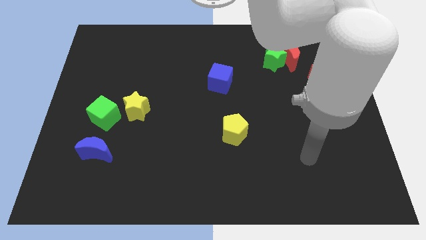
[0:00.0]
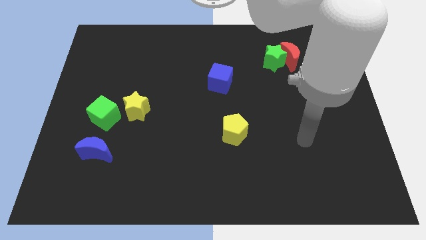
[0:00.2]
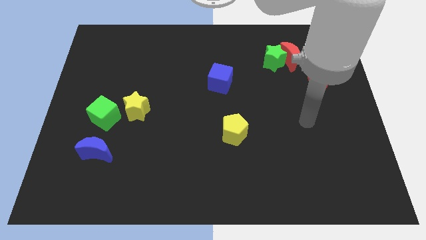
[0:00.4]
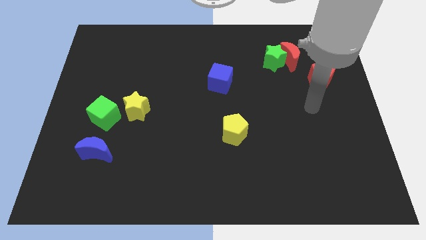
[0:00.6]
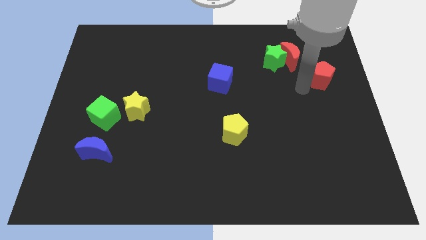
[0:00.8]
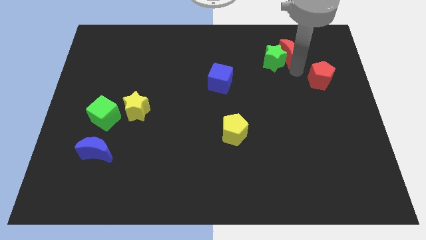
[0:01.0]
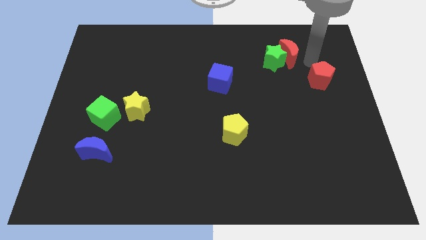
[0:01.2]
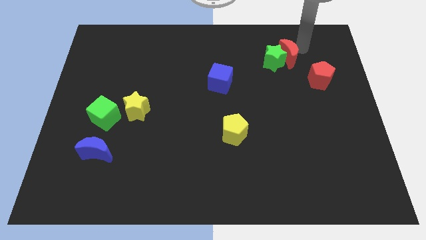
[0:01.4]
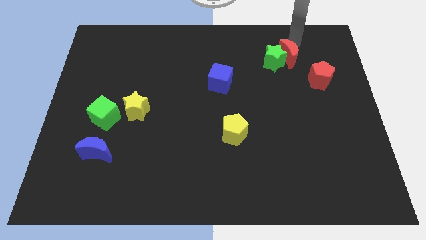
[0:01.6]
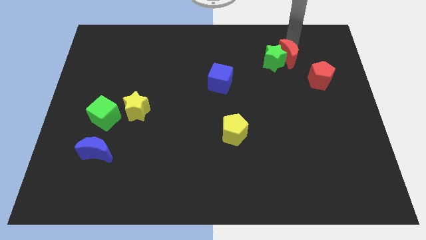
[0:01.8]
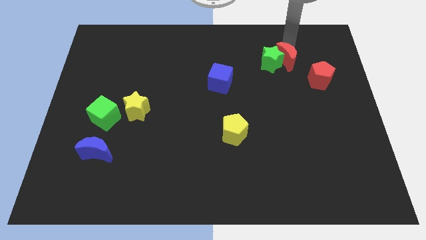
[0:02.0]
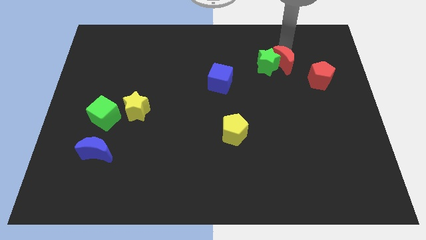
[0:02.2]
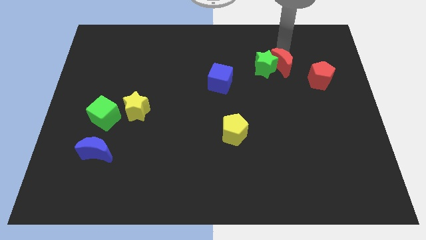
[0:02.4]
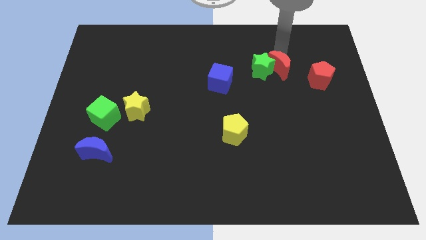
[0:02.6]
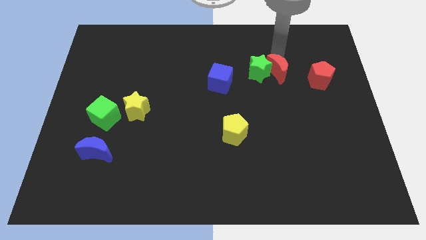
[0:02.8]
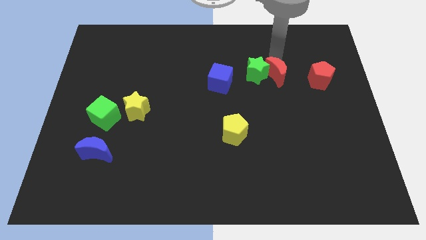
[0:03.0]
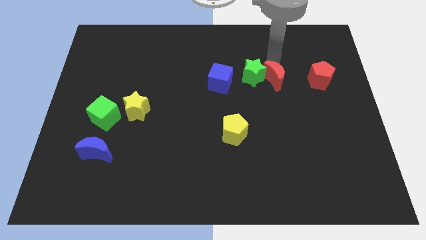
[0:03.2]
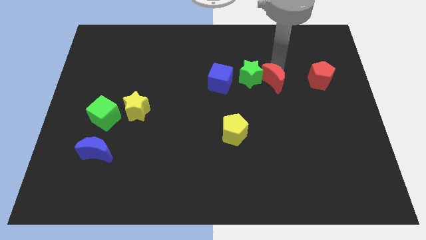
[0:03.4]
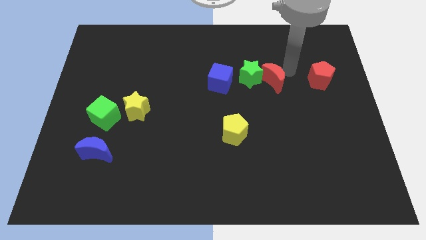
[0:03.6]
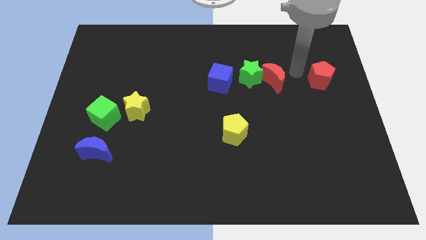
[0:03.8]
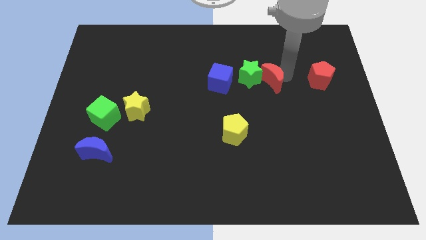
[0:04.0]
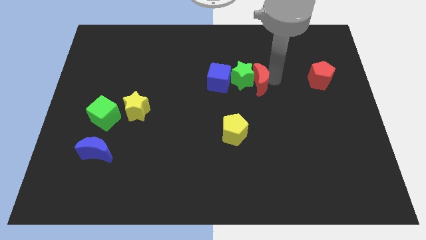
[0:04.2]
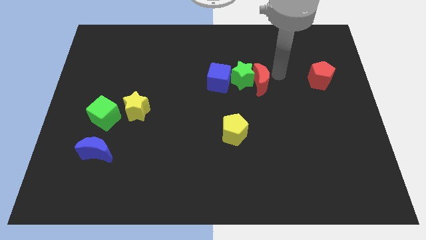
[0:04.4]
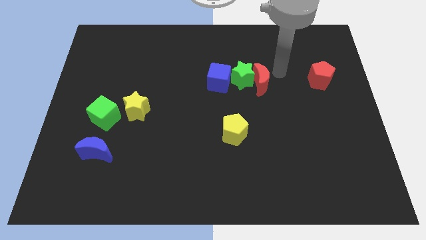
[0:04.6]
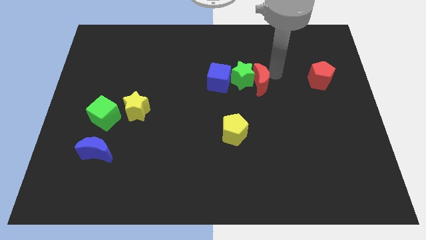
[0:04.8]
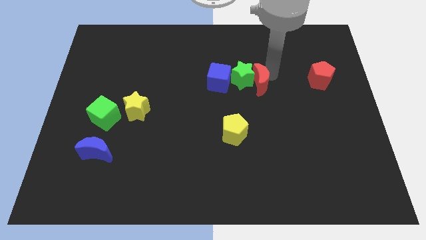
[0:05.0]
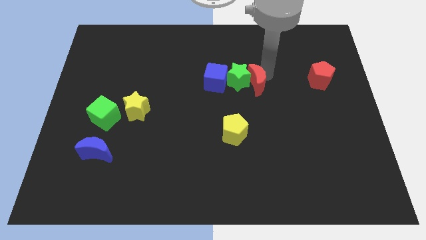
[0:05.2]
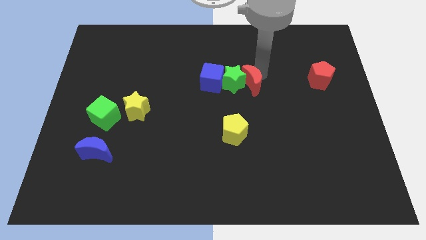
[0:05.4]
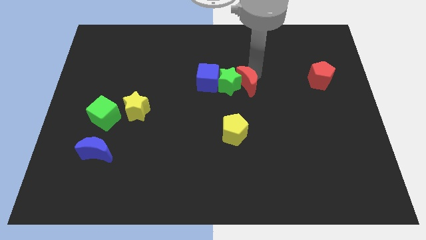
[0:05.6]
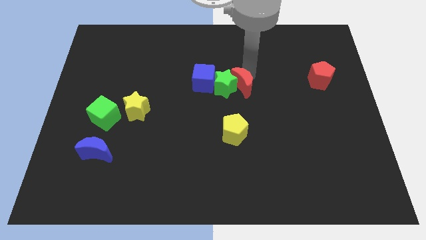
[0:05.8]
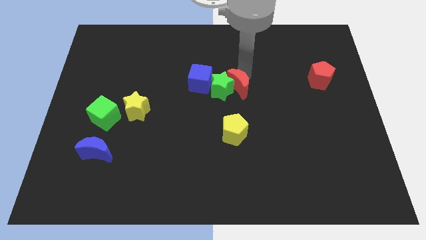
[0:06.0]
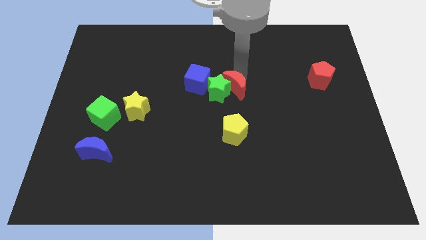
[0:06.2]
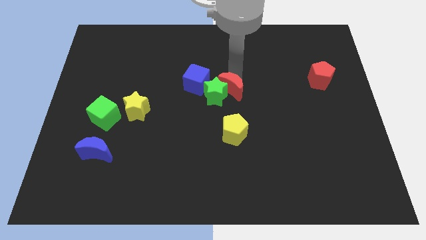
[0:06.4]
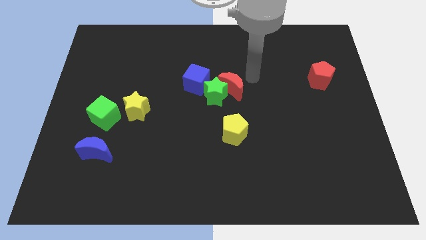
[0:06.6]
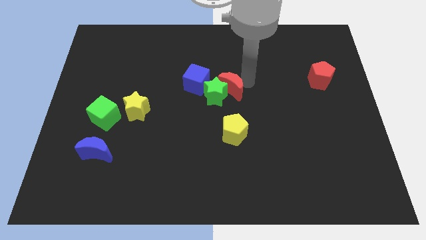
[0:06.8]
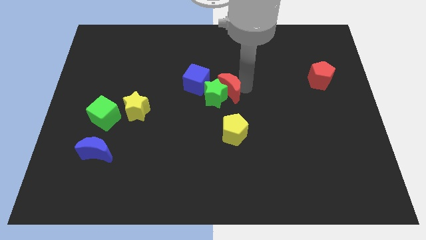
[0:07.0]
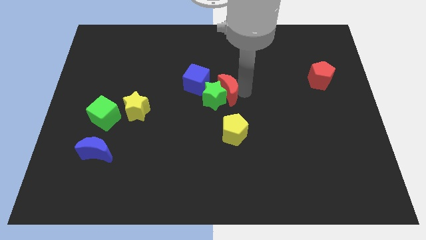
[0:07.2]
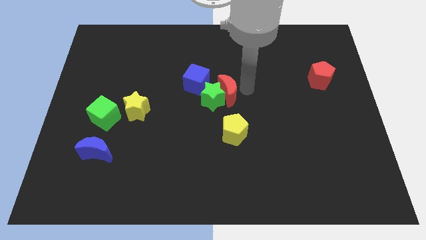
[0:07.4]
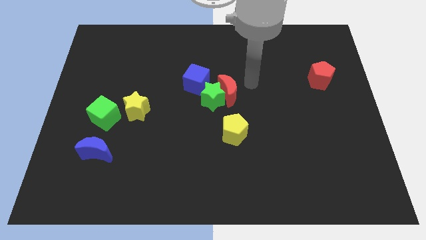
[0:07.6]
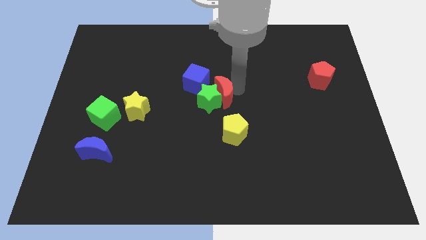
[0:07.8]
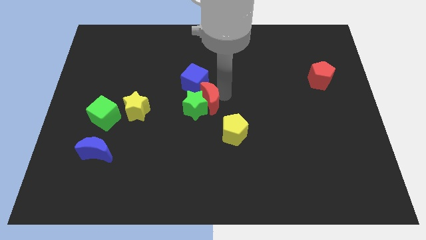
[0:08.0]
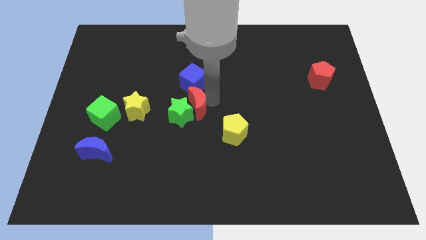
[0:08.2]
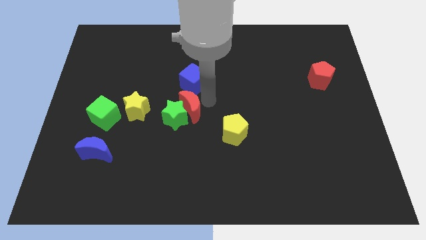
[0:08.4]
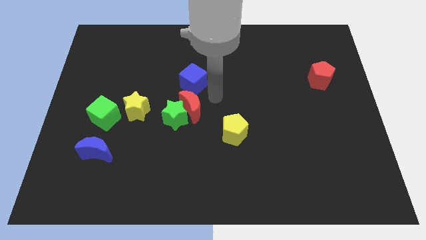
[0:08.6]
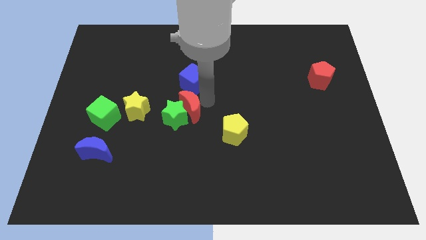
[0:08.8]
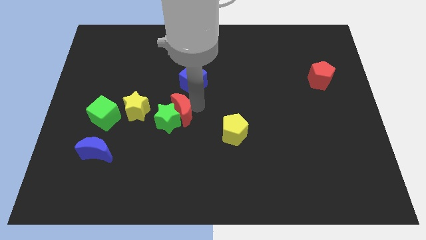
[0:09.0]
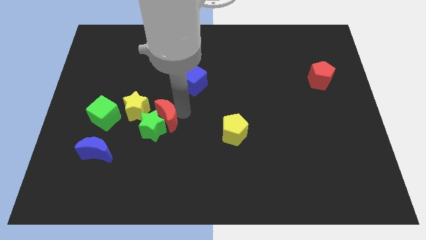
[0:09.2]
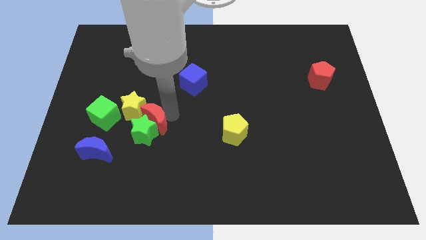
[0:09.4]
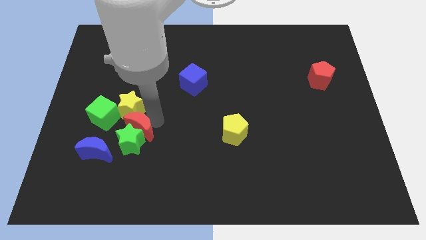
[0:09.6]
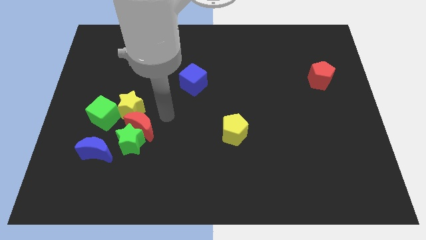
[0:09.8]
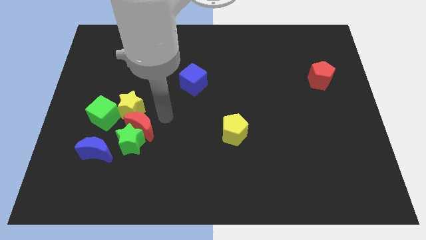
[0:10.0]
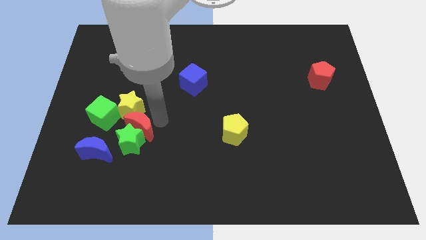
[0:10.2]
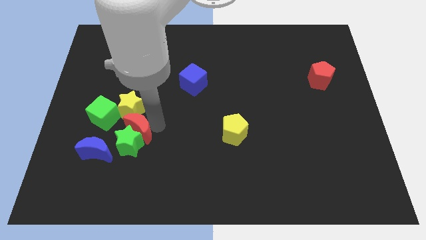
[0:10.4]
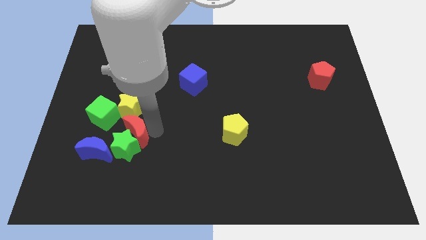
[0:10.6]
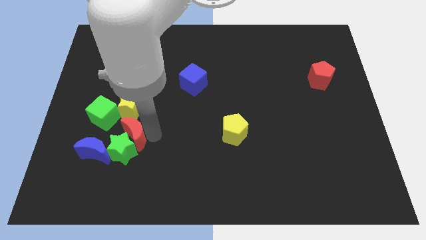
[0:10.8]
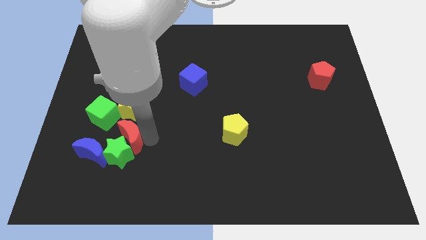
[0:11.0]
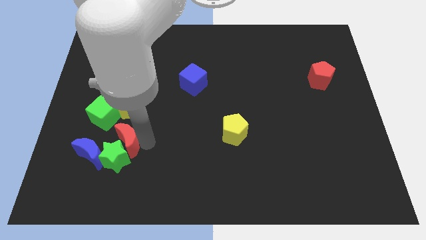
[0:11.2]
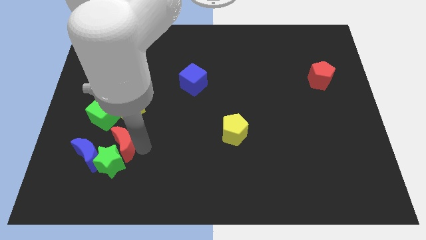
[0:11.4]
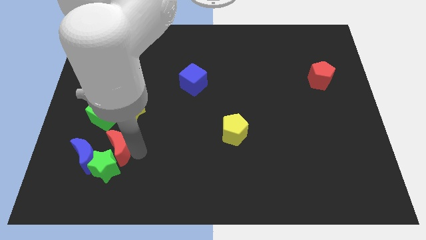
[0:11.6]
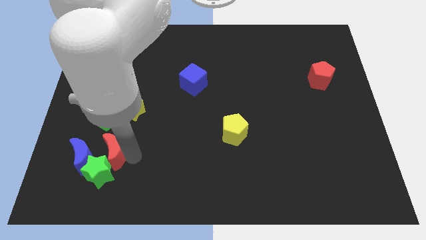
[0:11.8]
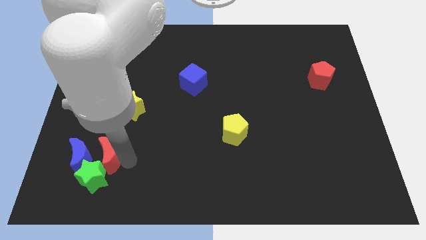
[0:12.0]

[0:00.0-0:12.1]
slide the red moon towards the blue moon
